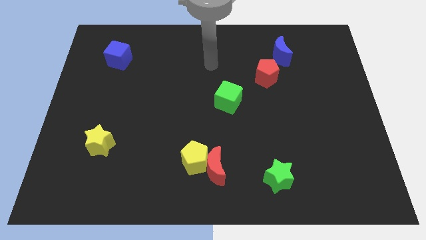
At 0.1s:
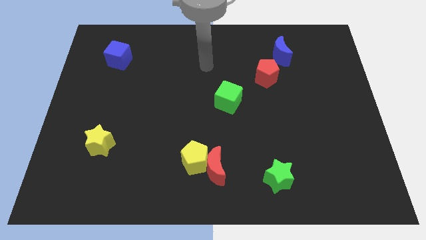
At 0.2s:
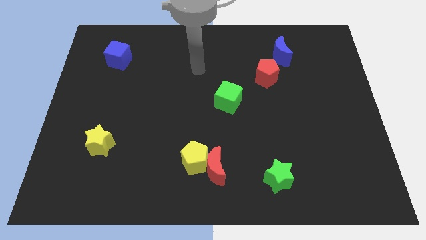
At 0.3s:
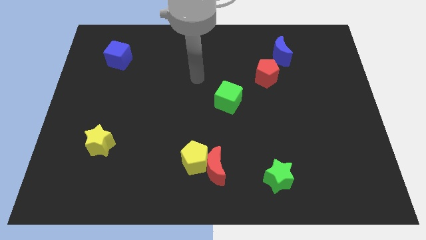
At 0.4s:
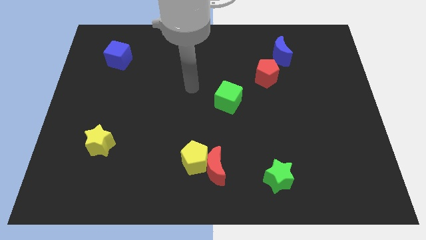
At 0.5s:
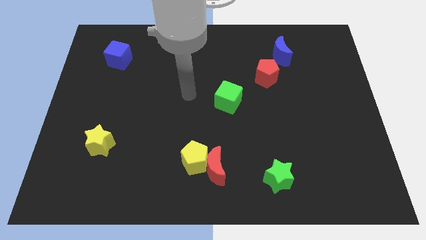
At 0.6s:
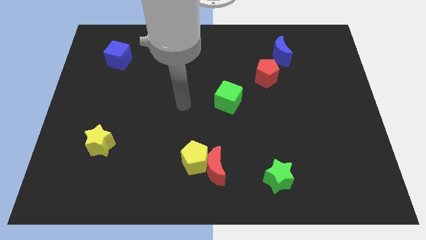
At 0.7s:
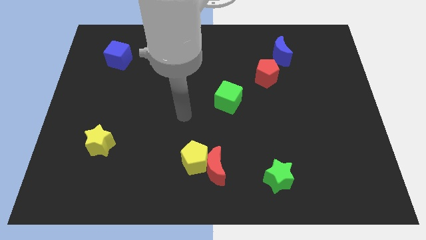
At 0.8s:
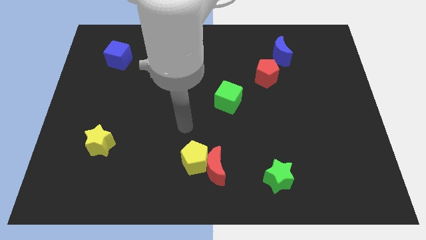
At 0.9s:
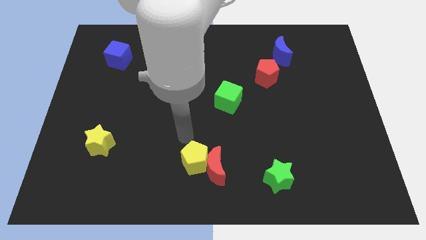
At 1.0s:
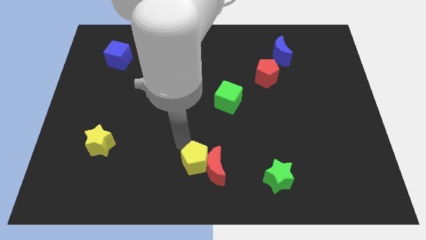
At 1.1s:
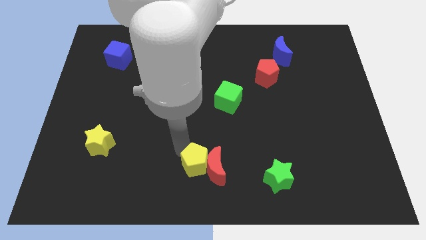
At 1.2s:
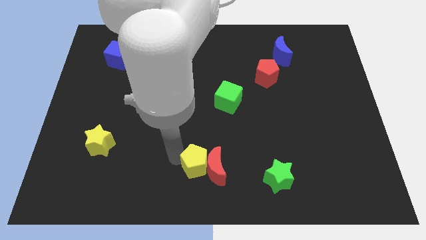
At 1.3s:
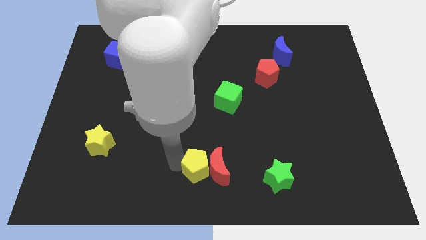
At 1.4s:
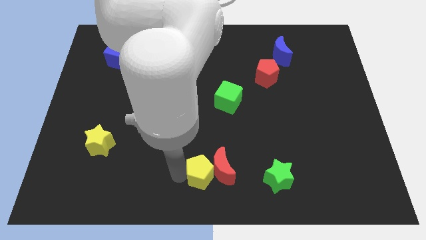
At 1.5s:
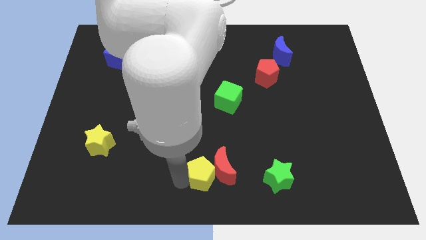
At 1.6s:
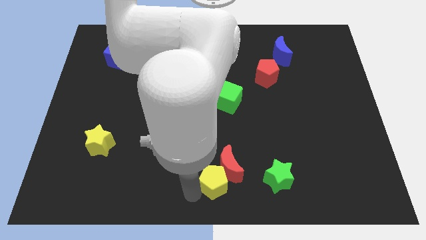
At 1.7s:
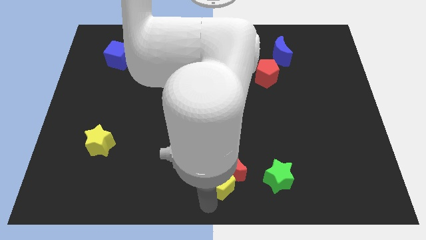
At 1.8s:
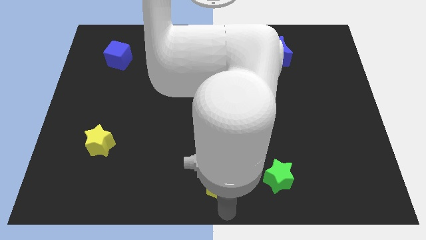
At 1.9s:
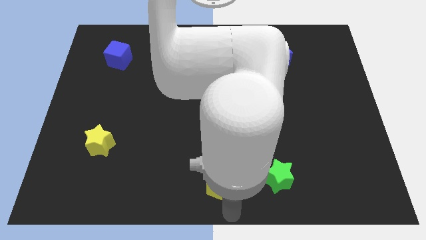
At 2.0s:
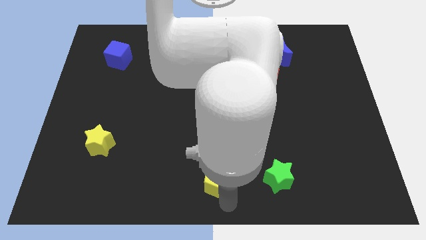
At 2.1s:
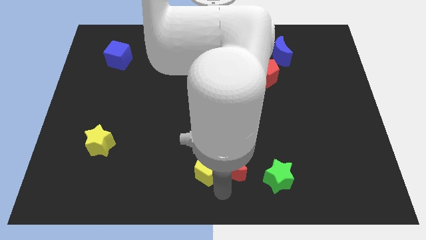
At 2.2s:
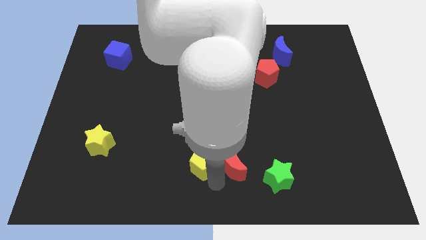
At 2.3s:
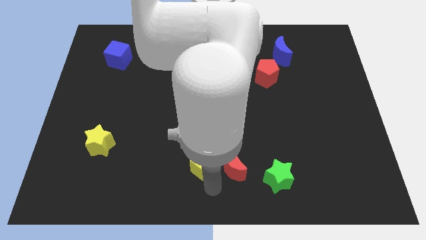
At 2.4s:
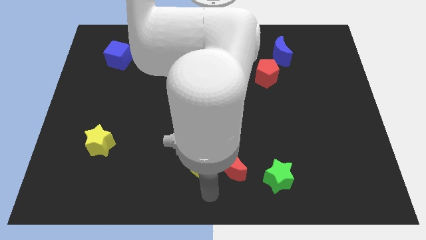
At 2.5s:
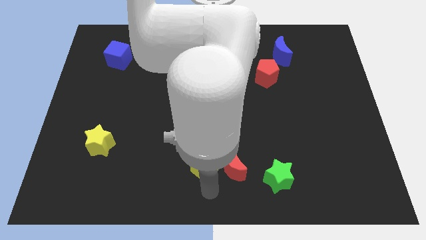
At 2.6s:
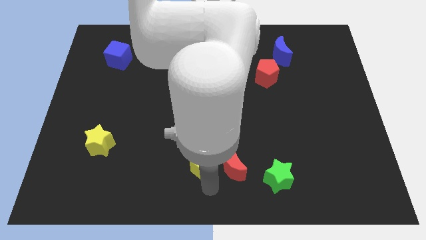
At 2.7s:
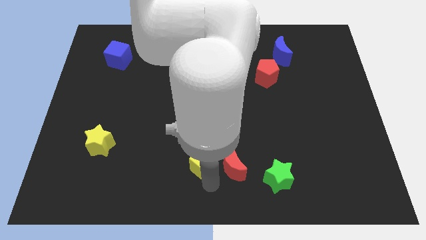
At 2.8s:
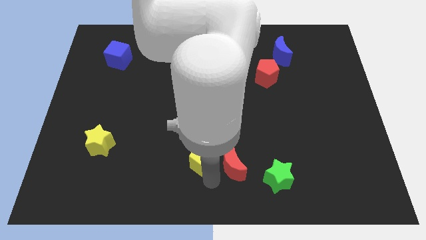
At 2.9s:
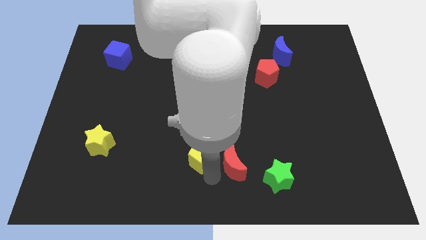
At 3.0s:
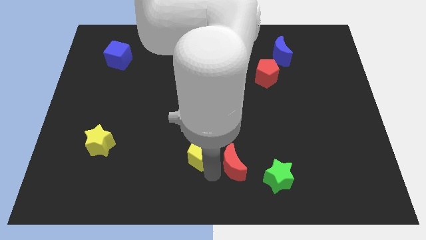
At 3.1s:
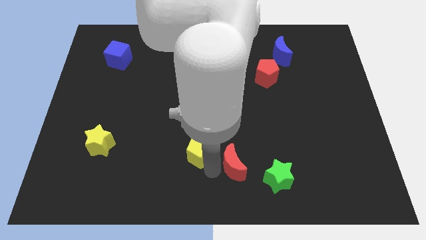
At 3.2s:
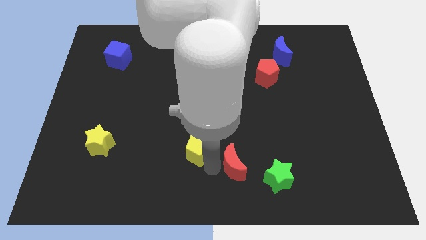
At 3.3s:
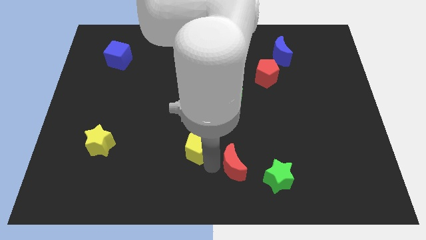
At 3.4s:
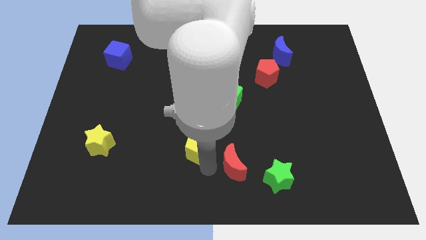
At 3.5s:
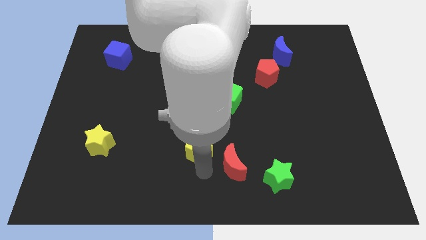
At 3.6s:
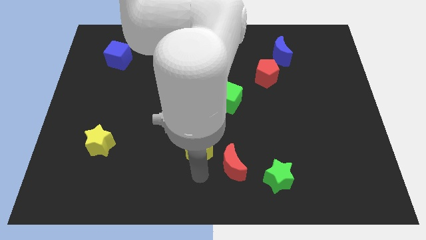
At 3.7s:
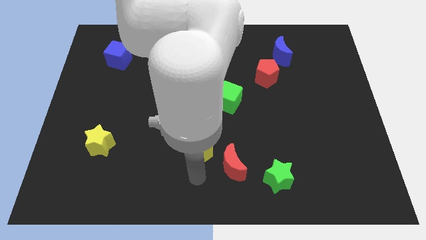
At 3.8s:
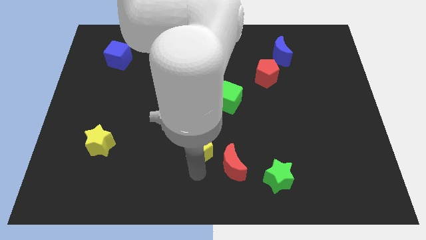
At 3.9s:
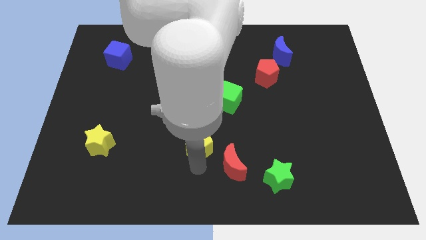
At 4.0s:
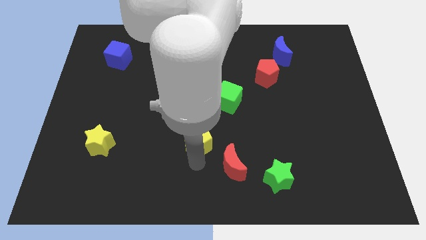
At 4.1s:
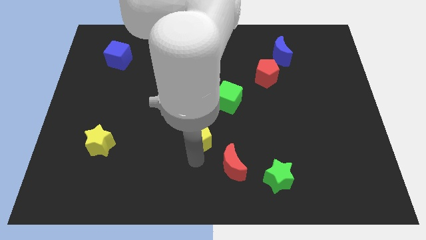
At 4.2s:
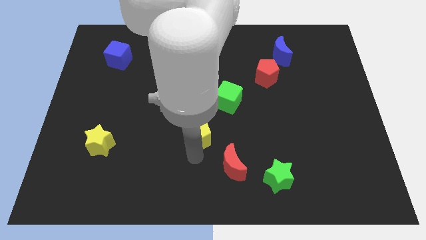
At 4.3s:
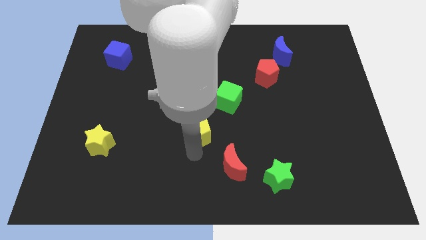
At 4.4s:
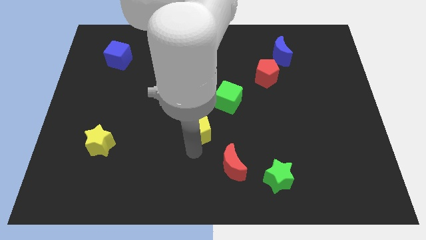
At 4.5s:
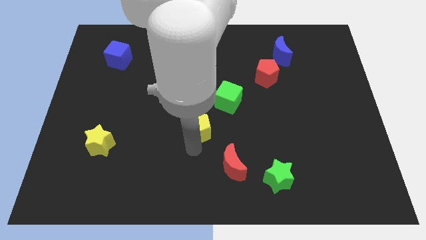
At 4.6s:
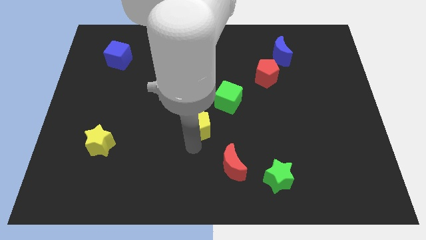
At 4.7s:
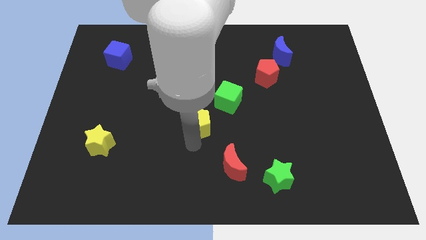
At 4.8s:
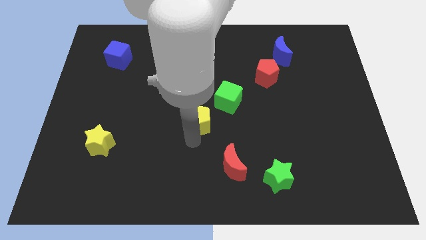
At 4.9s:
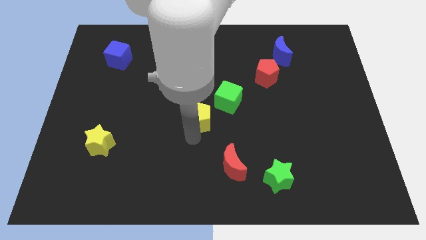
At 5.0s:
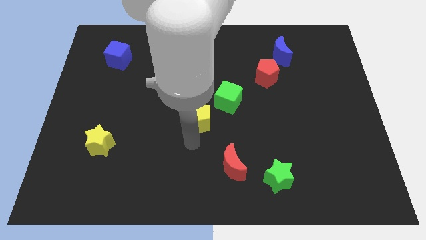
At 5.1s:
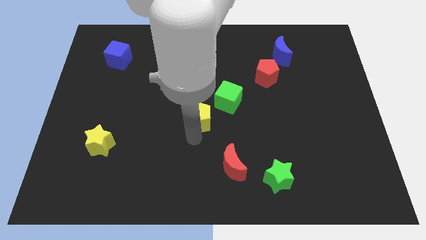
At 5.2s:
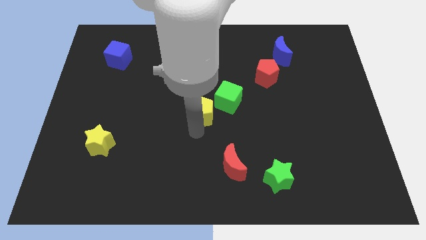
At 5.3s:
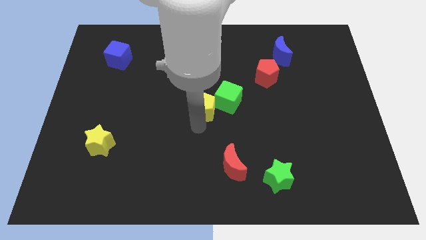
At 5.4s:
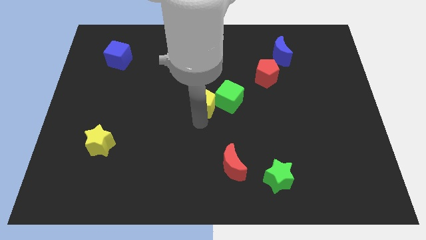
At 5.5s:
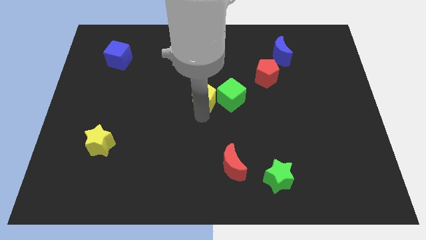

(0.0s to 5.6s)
push the yellow pentagon to the top left of the green cube

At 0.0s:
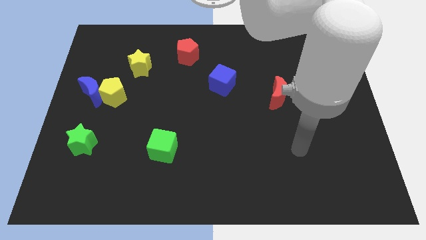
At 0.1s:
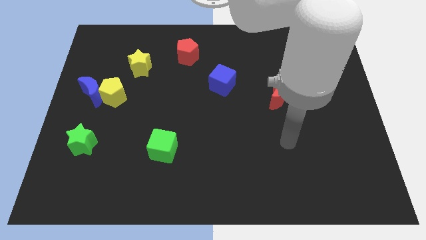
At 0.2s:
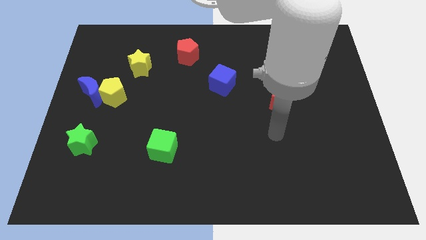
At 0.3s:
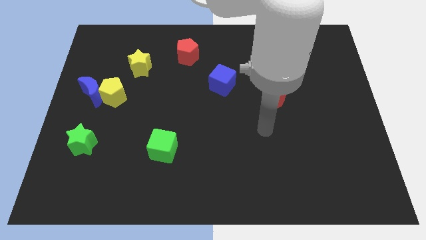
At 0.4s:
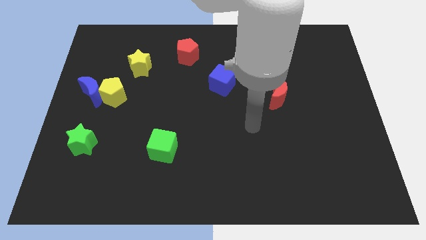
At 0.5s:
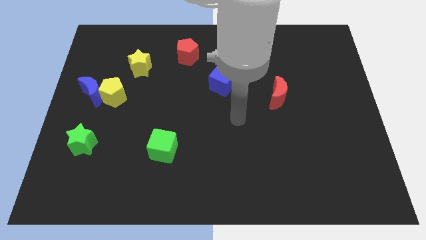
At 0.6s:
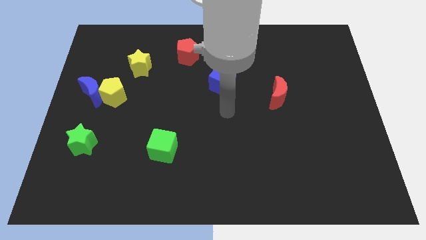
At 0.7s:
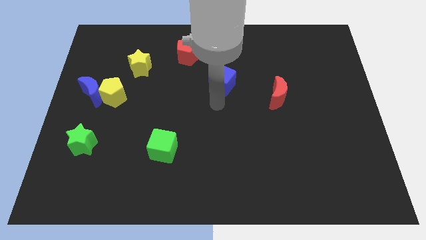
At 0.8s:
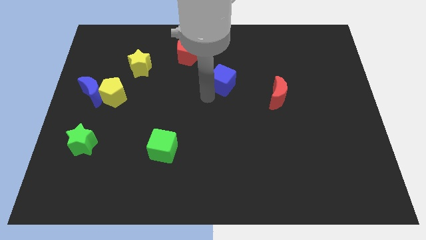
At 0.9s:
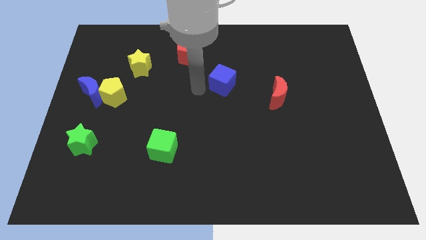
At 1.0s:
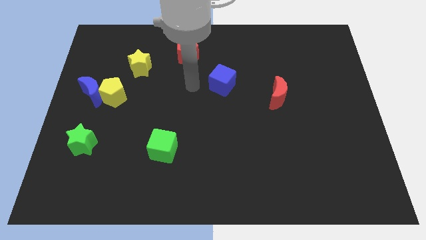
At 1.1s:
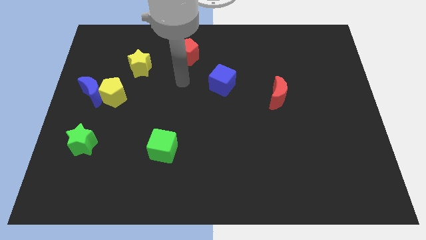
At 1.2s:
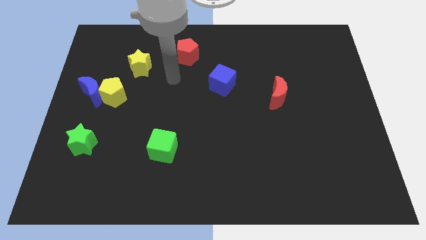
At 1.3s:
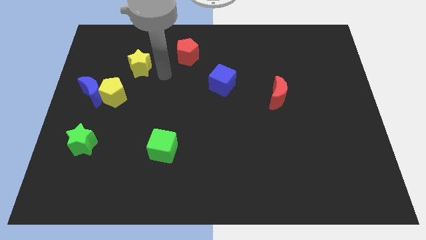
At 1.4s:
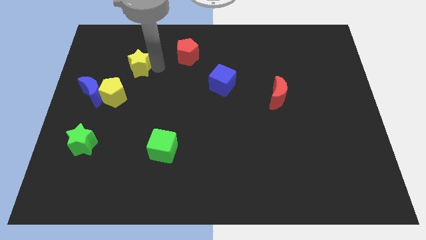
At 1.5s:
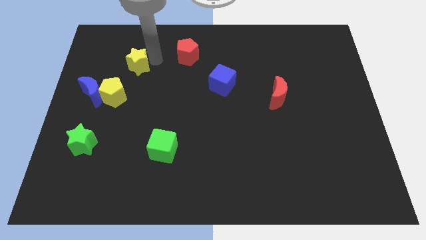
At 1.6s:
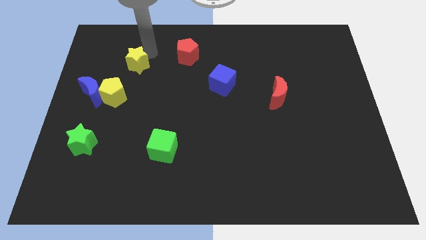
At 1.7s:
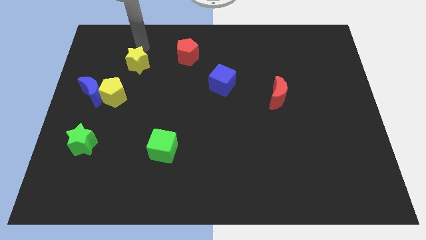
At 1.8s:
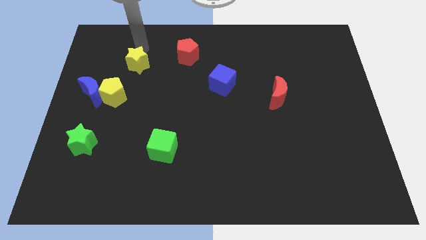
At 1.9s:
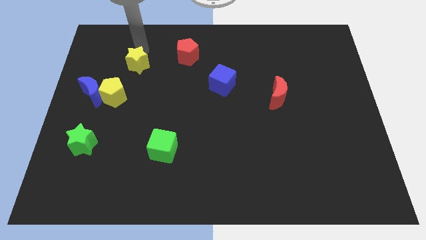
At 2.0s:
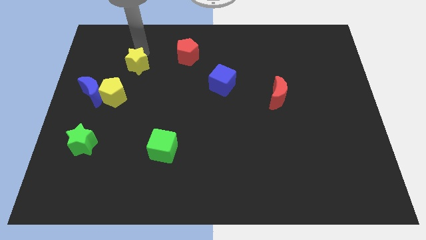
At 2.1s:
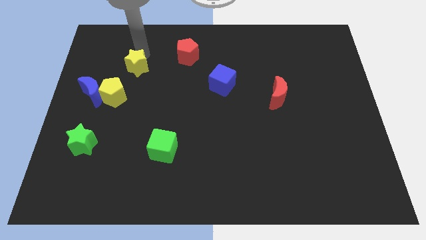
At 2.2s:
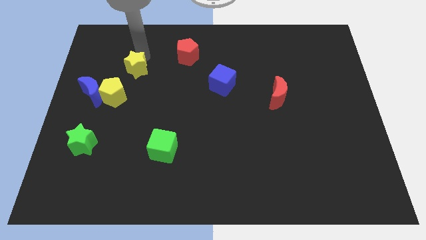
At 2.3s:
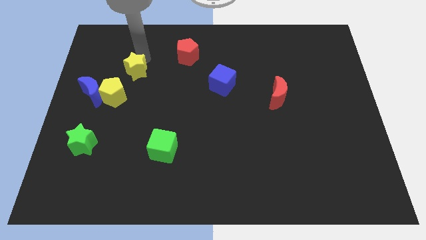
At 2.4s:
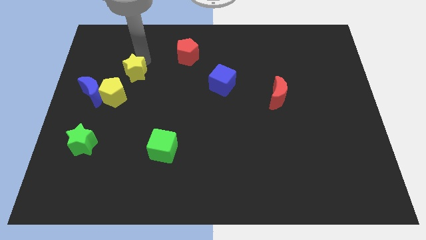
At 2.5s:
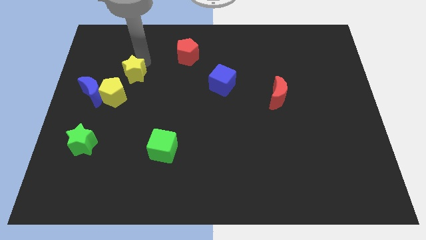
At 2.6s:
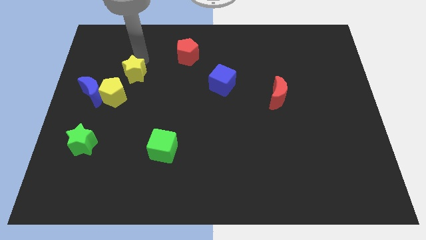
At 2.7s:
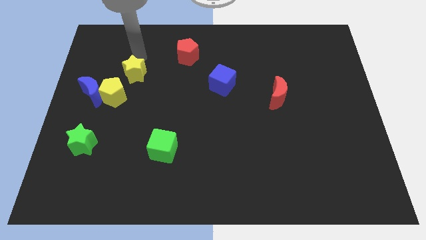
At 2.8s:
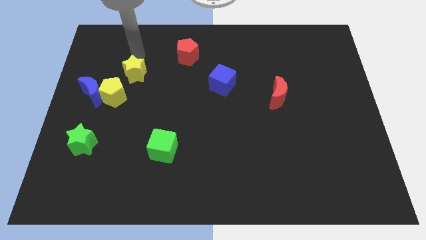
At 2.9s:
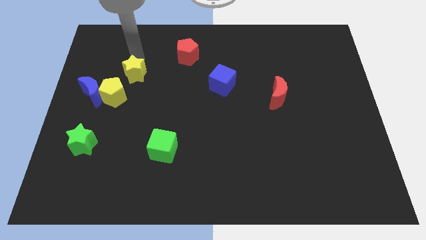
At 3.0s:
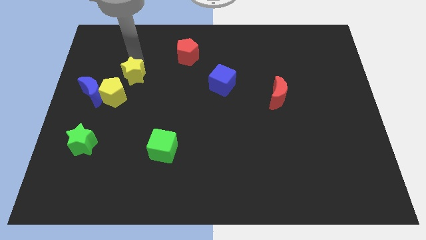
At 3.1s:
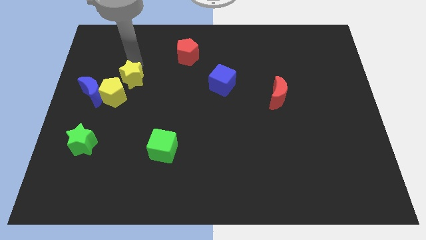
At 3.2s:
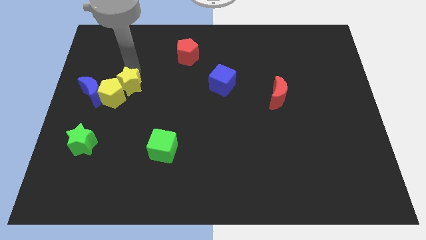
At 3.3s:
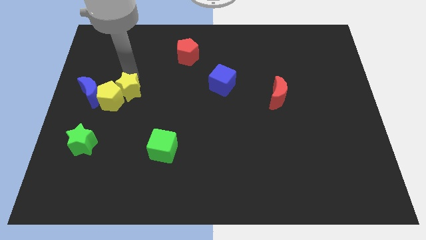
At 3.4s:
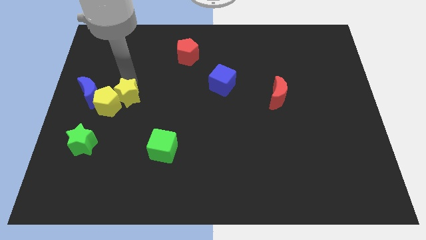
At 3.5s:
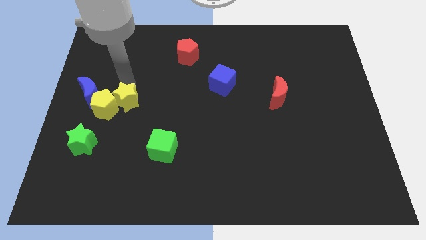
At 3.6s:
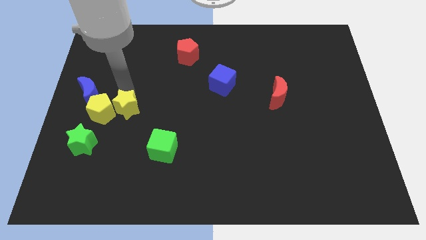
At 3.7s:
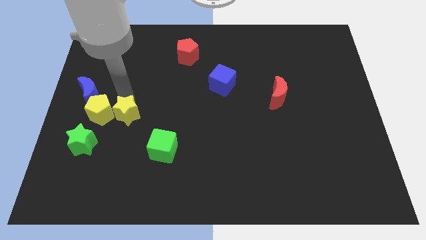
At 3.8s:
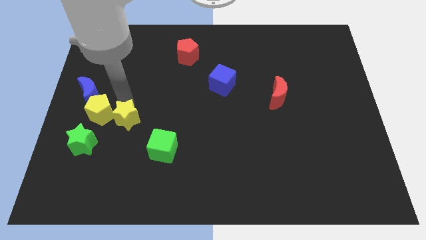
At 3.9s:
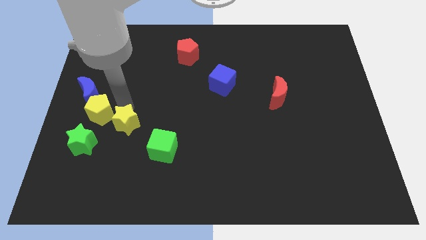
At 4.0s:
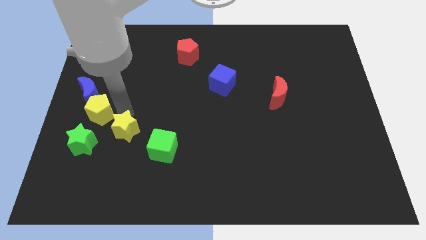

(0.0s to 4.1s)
push the yellow star to the right side of the green star
